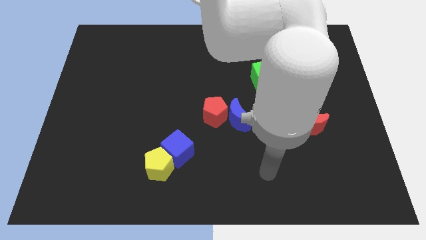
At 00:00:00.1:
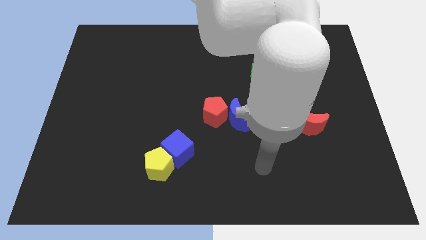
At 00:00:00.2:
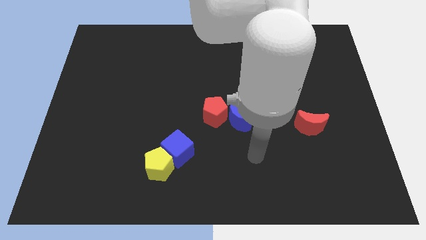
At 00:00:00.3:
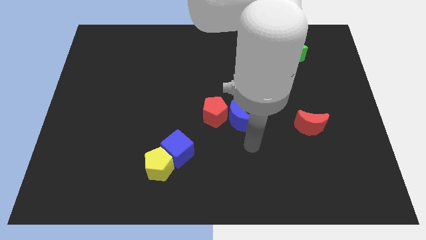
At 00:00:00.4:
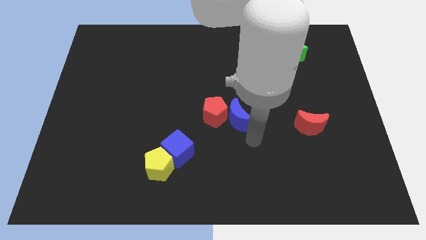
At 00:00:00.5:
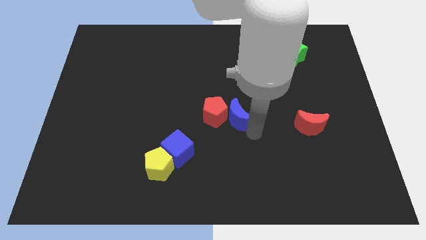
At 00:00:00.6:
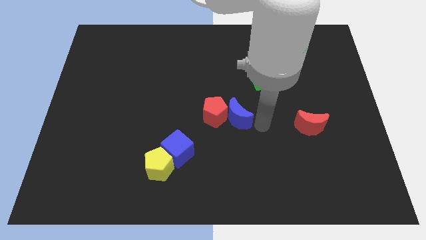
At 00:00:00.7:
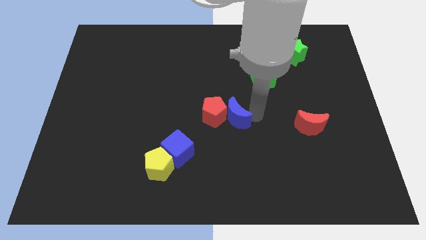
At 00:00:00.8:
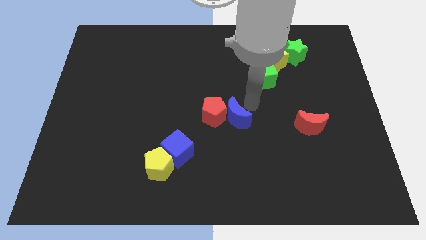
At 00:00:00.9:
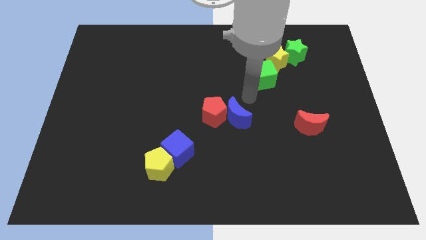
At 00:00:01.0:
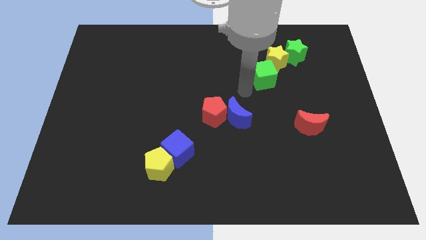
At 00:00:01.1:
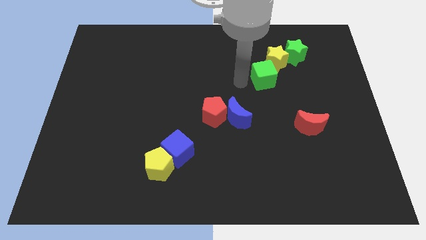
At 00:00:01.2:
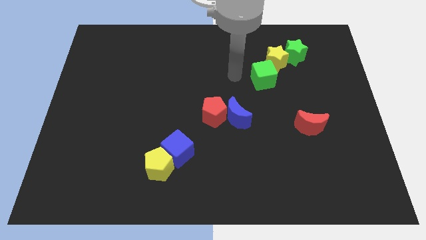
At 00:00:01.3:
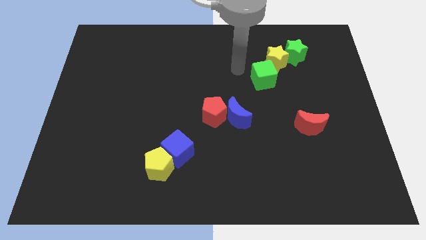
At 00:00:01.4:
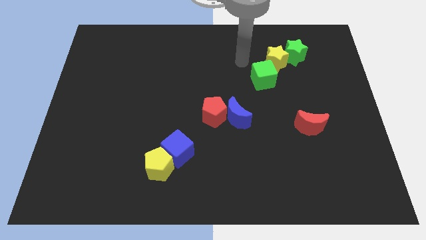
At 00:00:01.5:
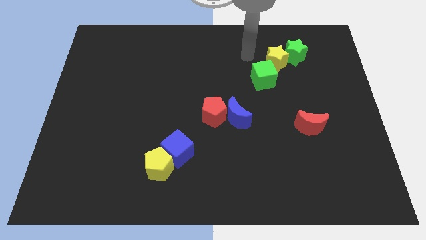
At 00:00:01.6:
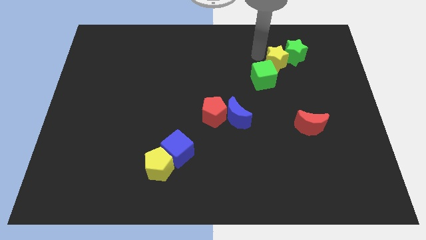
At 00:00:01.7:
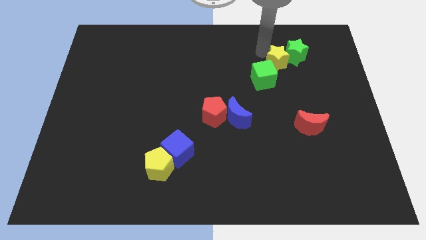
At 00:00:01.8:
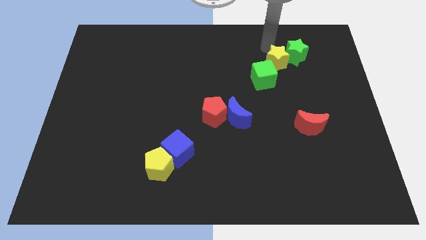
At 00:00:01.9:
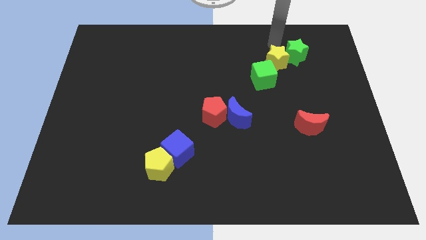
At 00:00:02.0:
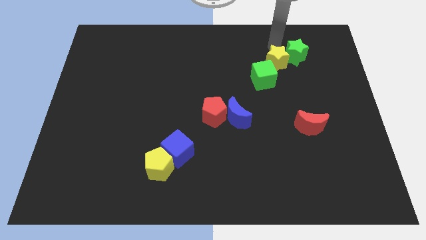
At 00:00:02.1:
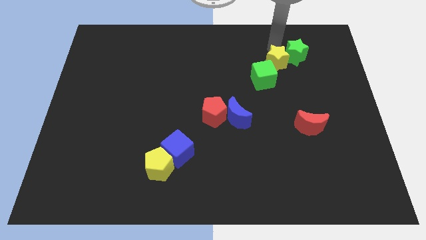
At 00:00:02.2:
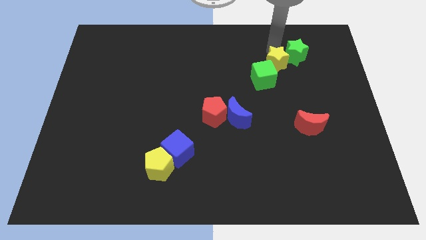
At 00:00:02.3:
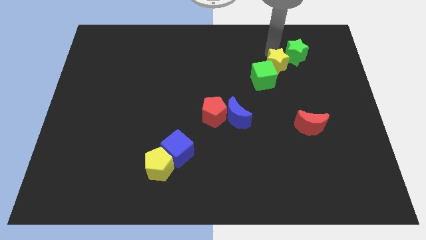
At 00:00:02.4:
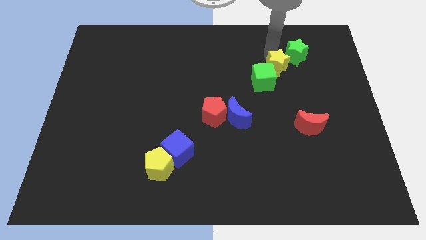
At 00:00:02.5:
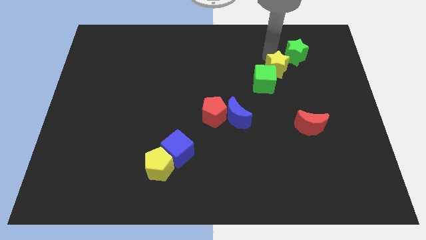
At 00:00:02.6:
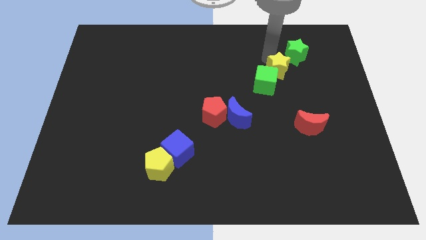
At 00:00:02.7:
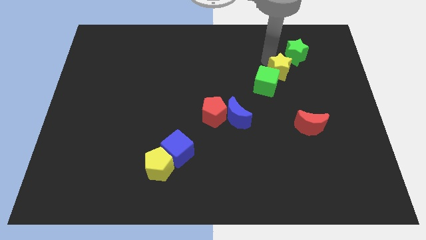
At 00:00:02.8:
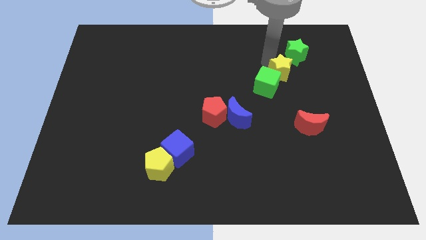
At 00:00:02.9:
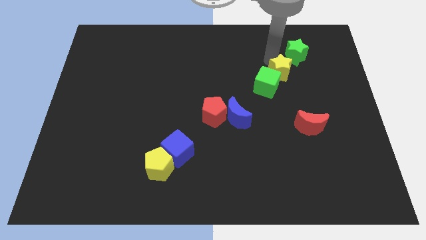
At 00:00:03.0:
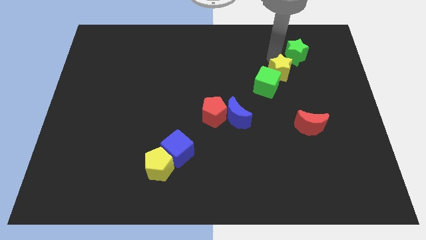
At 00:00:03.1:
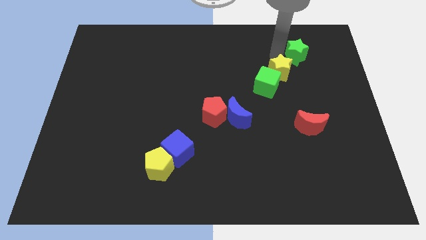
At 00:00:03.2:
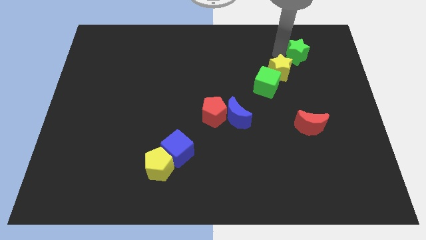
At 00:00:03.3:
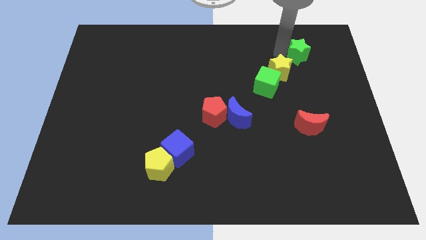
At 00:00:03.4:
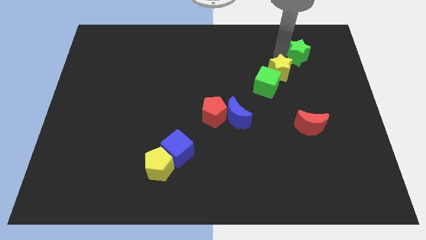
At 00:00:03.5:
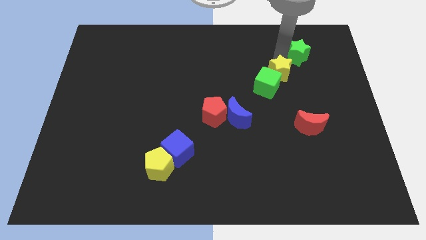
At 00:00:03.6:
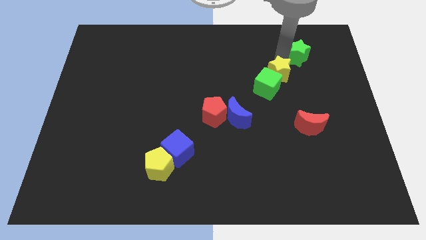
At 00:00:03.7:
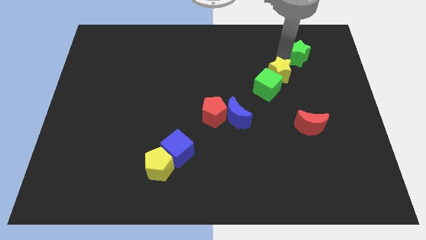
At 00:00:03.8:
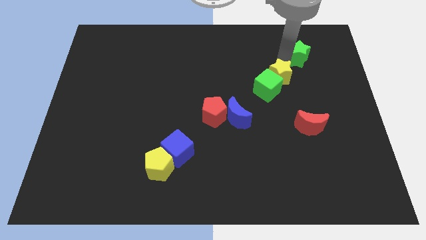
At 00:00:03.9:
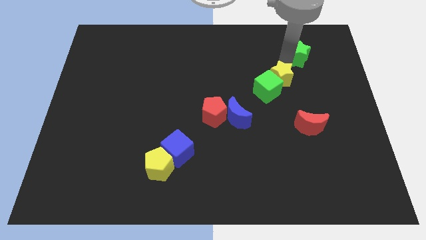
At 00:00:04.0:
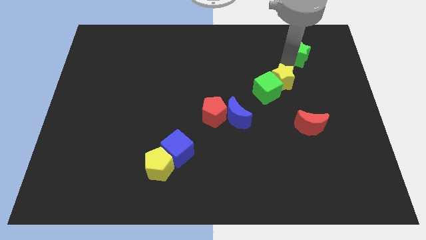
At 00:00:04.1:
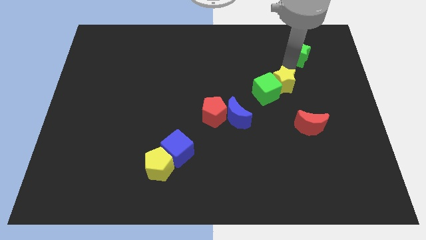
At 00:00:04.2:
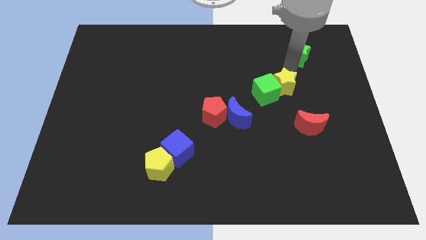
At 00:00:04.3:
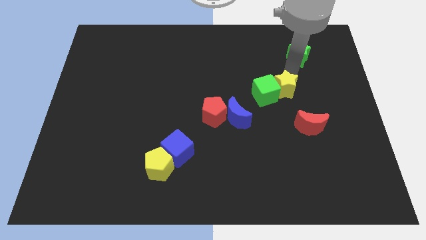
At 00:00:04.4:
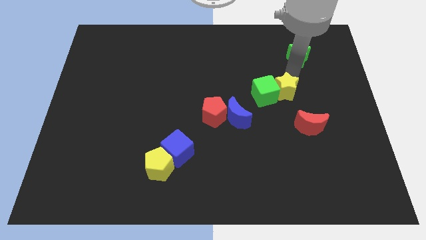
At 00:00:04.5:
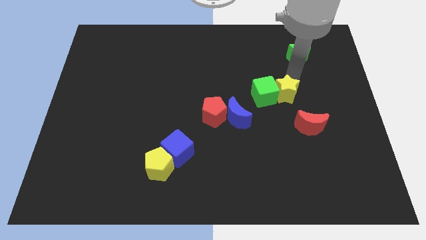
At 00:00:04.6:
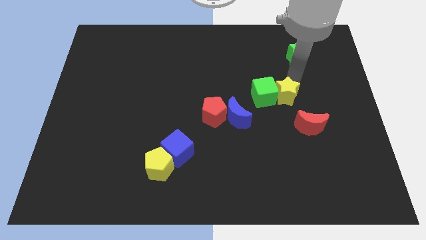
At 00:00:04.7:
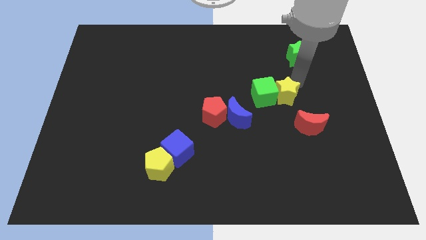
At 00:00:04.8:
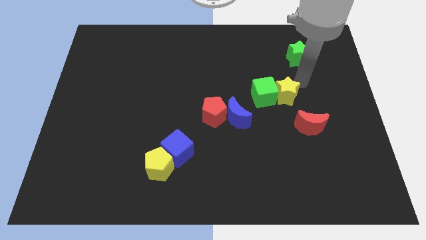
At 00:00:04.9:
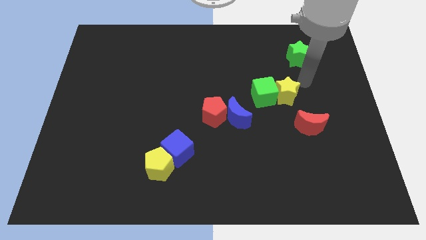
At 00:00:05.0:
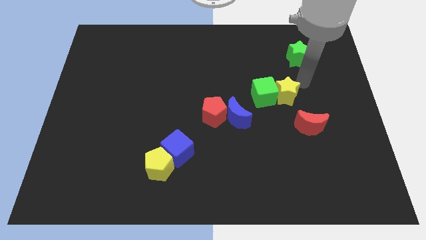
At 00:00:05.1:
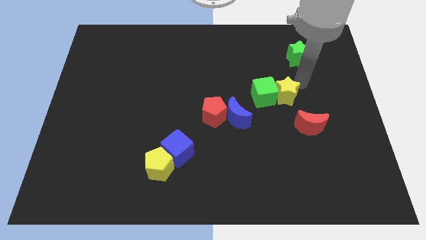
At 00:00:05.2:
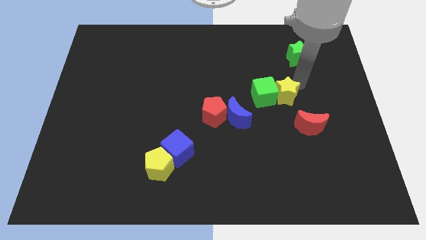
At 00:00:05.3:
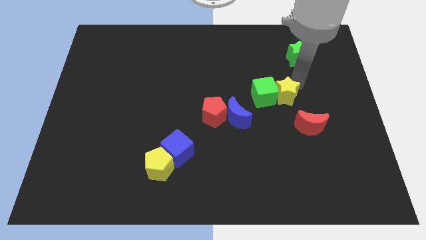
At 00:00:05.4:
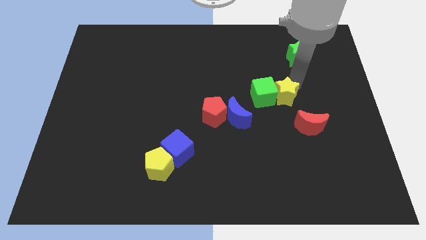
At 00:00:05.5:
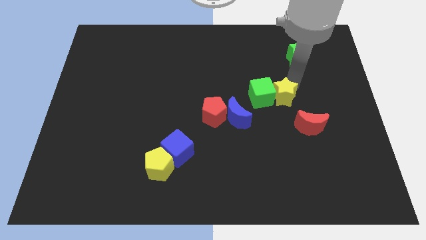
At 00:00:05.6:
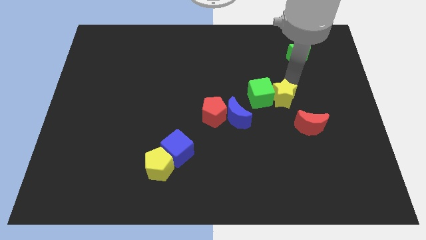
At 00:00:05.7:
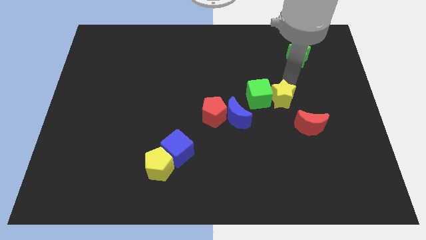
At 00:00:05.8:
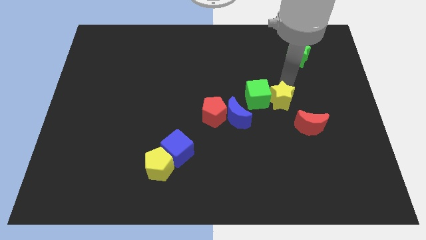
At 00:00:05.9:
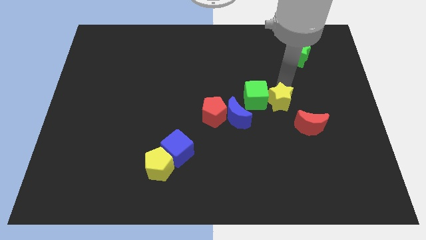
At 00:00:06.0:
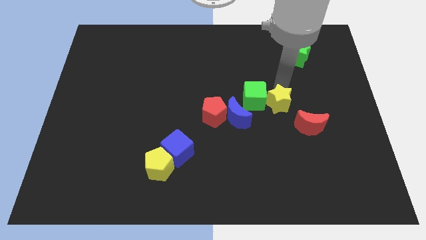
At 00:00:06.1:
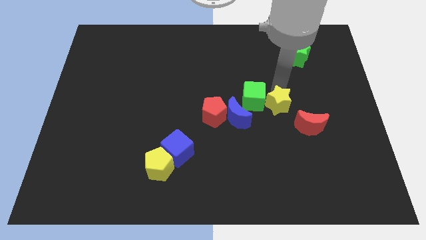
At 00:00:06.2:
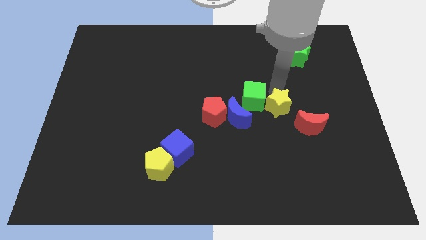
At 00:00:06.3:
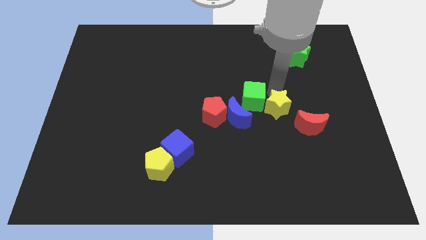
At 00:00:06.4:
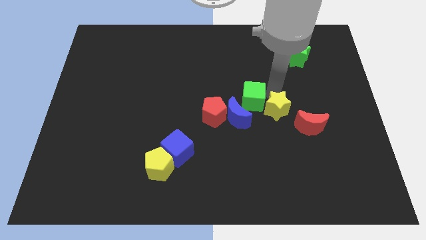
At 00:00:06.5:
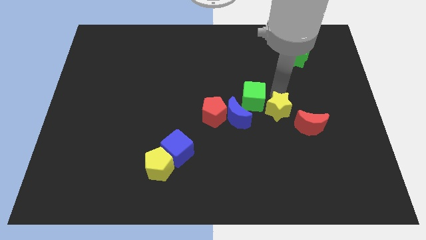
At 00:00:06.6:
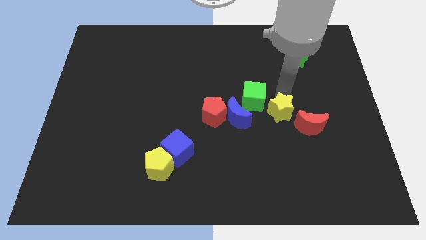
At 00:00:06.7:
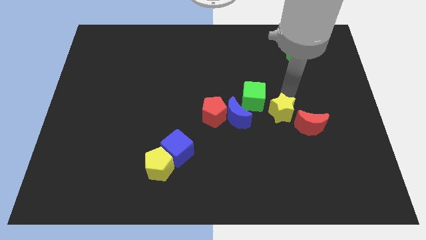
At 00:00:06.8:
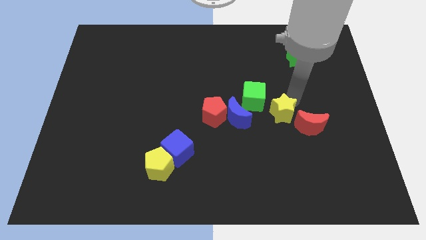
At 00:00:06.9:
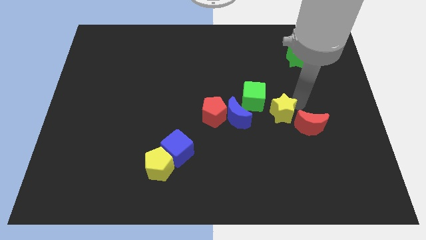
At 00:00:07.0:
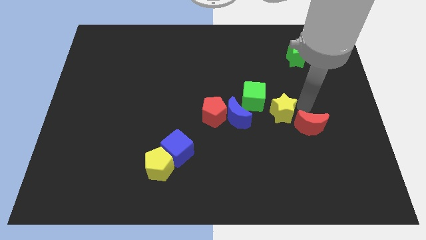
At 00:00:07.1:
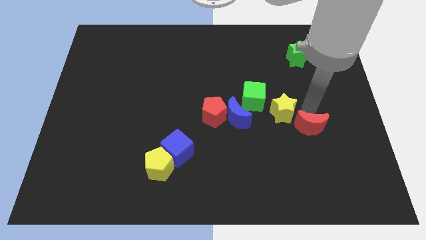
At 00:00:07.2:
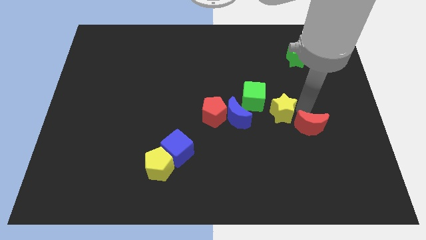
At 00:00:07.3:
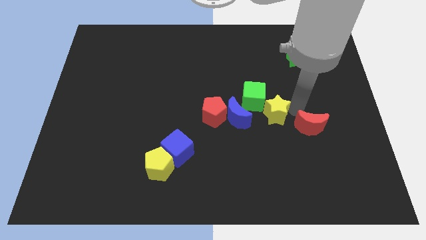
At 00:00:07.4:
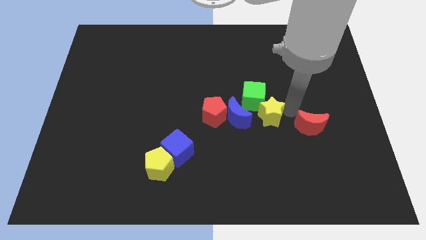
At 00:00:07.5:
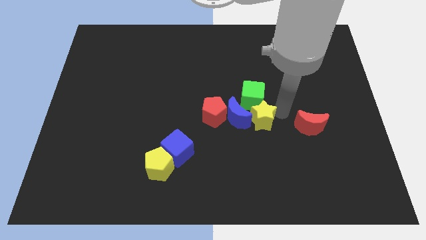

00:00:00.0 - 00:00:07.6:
put the yellow star to the blue moon
